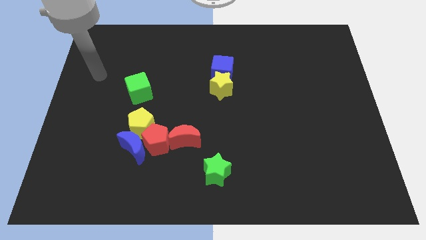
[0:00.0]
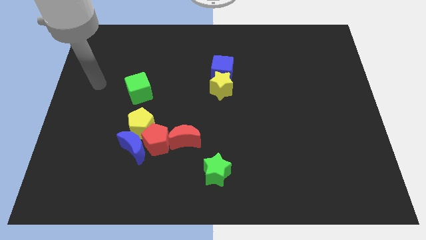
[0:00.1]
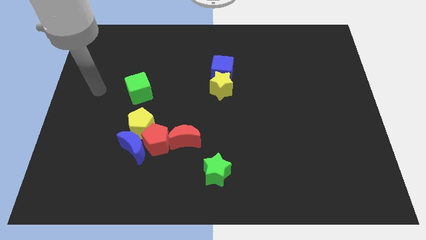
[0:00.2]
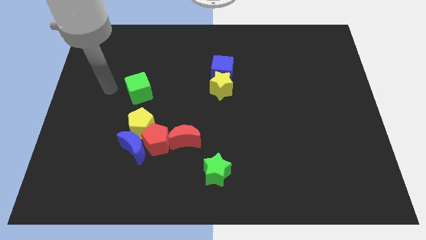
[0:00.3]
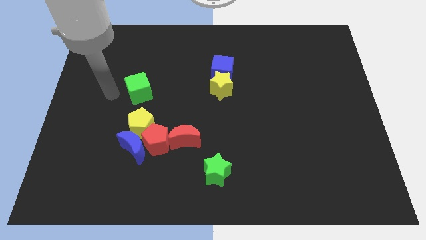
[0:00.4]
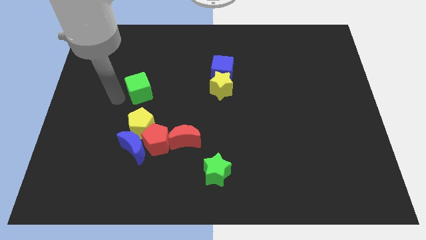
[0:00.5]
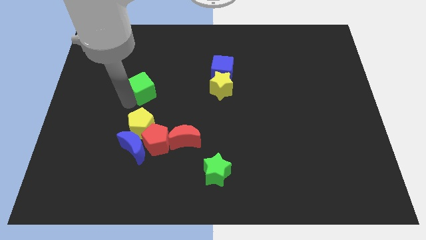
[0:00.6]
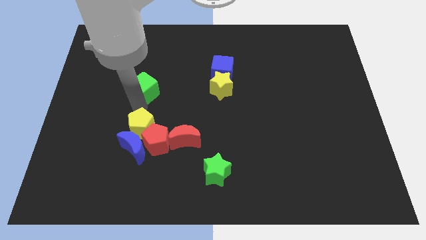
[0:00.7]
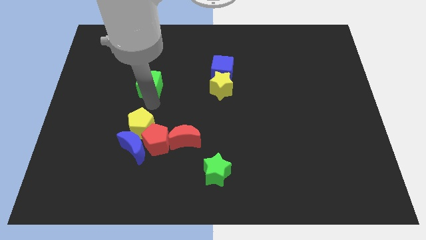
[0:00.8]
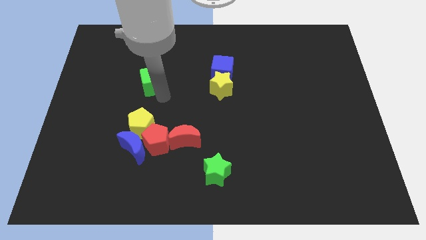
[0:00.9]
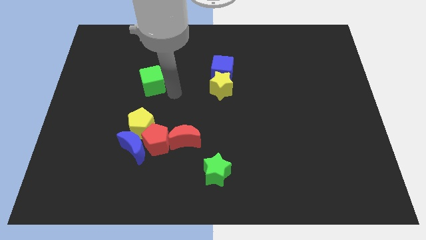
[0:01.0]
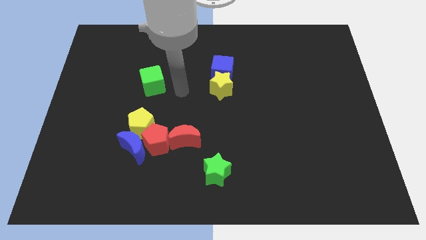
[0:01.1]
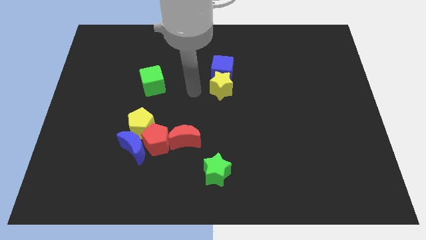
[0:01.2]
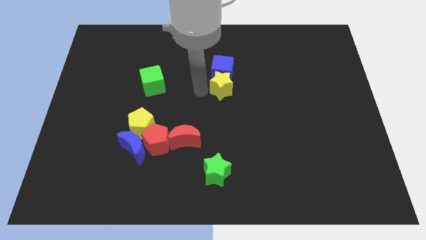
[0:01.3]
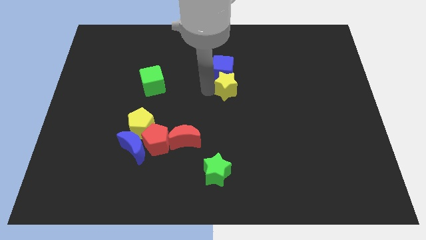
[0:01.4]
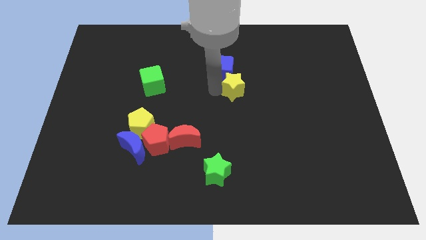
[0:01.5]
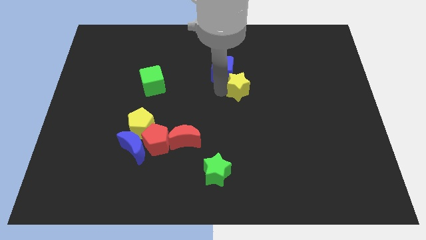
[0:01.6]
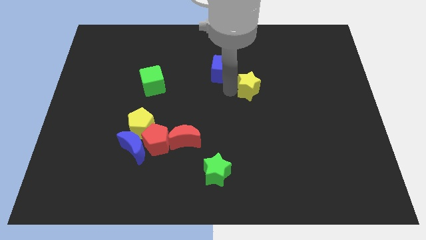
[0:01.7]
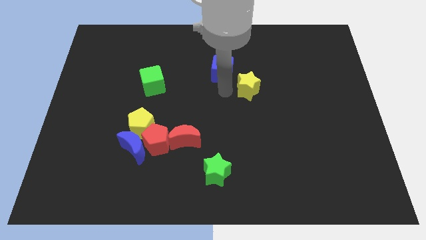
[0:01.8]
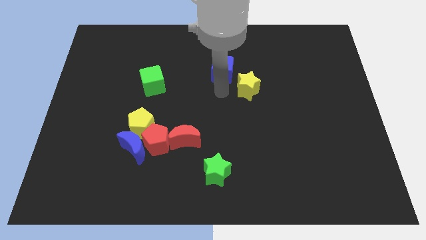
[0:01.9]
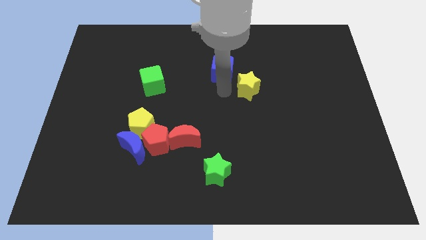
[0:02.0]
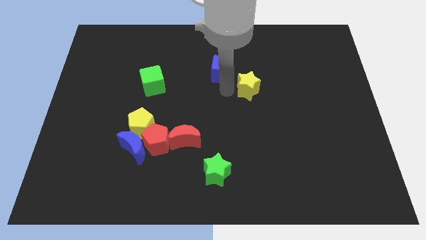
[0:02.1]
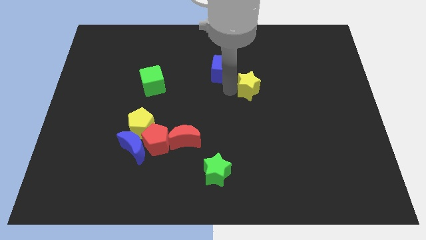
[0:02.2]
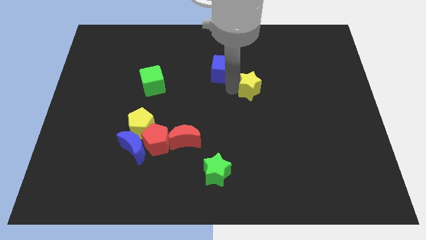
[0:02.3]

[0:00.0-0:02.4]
push the yellow star right somewhat

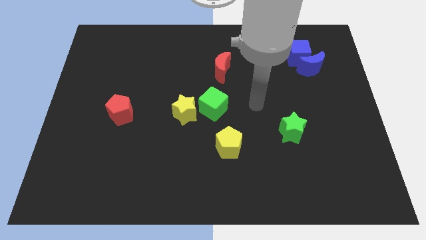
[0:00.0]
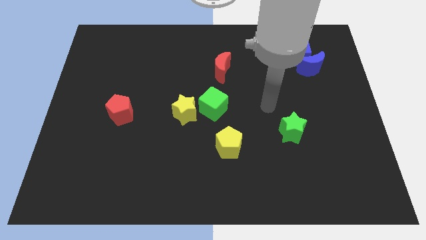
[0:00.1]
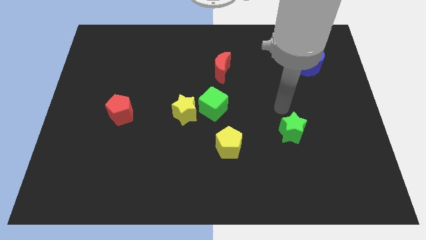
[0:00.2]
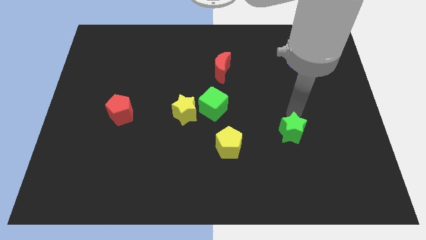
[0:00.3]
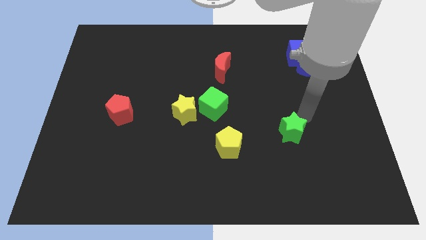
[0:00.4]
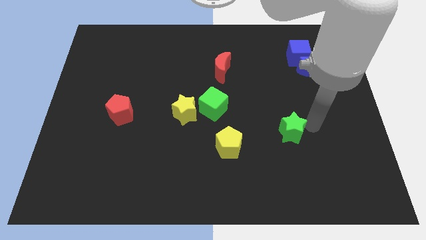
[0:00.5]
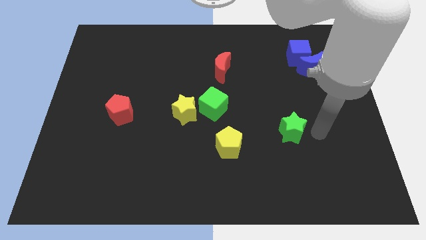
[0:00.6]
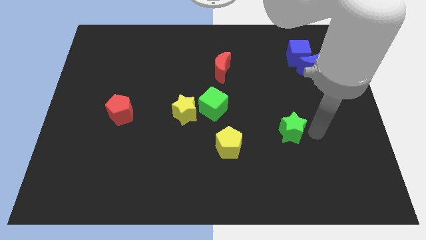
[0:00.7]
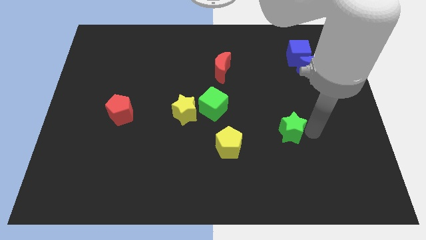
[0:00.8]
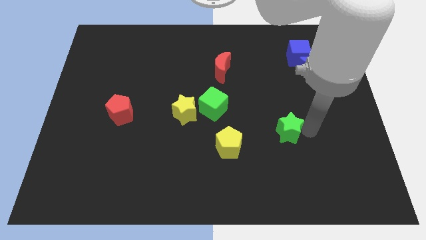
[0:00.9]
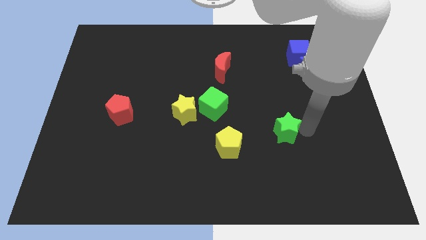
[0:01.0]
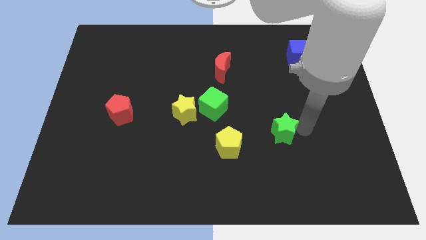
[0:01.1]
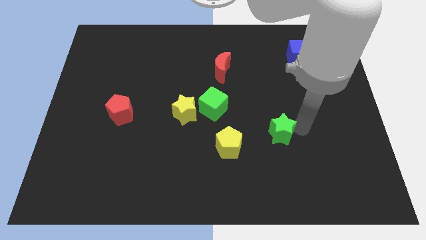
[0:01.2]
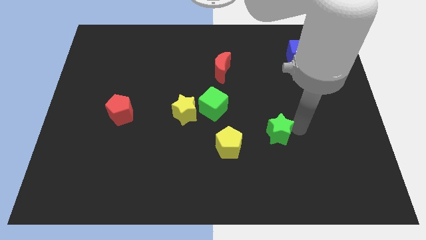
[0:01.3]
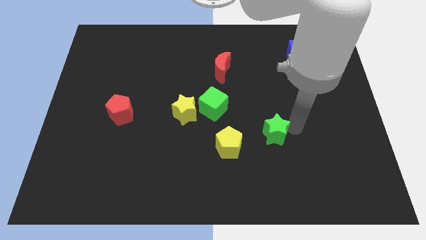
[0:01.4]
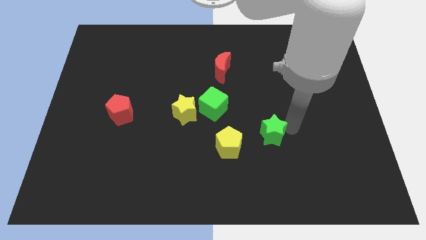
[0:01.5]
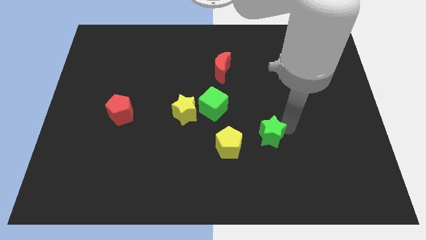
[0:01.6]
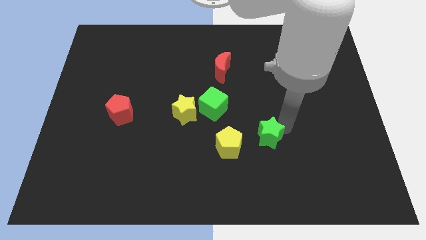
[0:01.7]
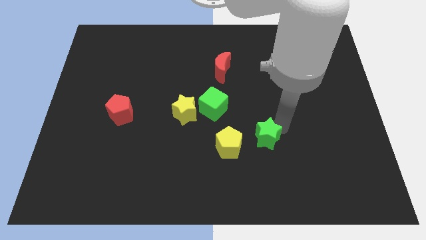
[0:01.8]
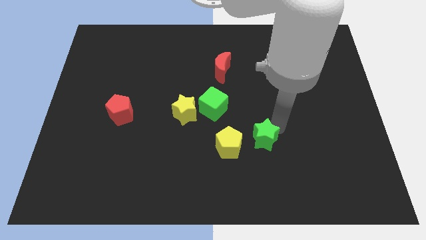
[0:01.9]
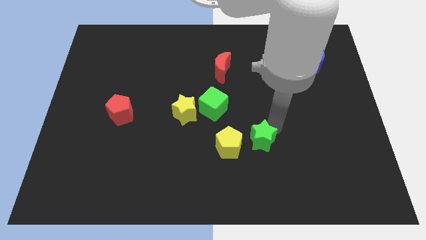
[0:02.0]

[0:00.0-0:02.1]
slightly push the green star left

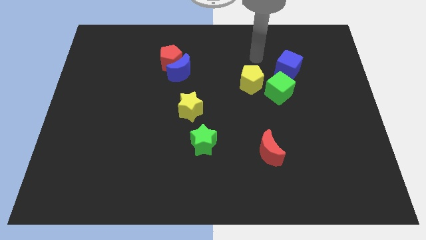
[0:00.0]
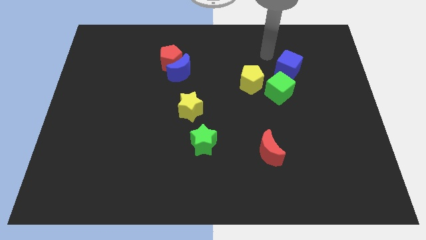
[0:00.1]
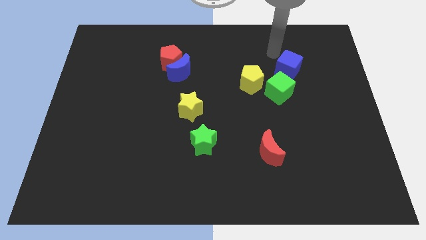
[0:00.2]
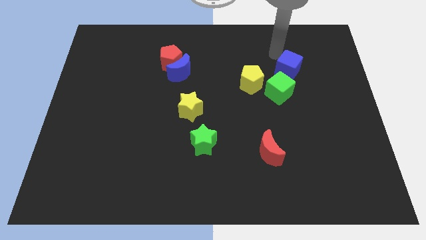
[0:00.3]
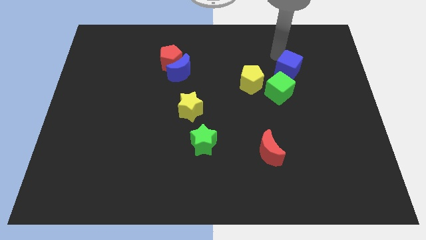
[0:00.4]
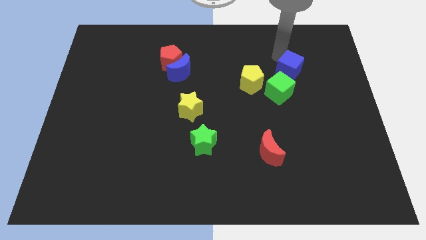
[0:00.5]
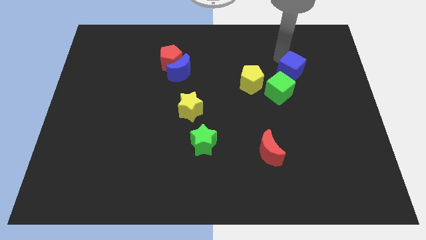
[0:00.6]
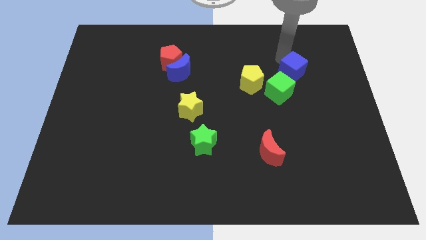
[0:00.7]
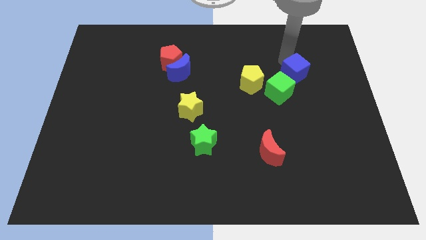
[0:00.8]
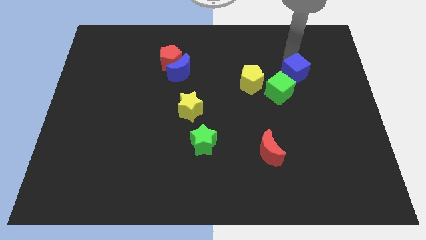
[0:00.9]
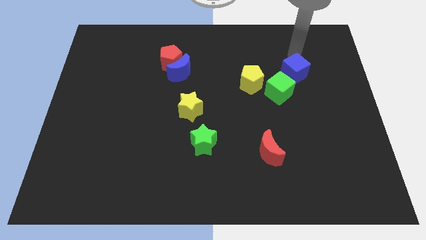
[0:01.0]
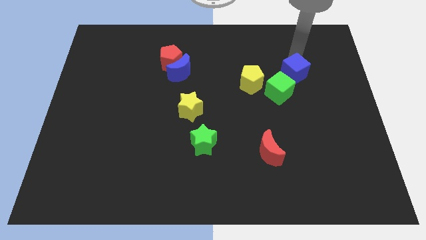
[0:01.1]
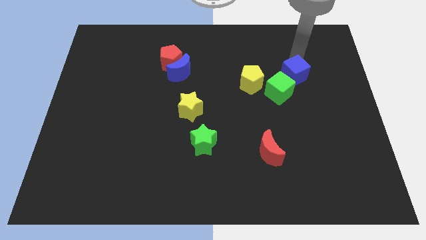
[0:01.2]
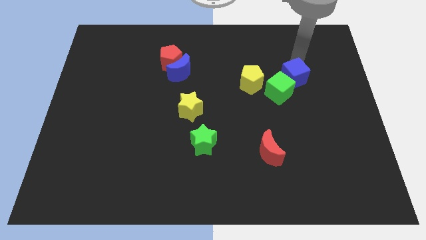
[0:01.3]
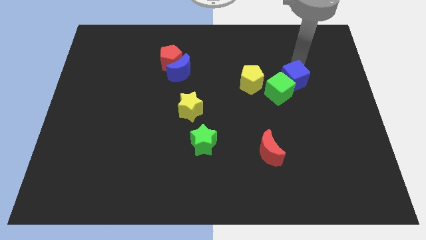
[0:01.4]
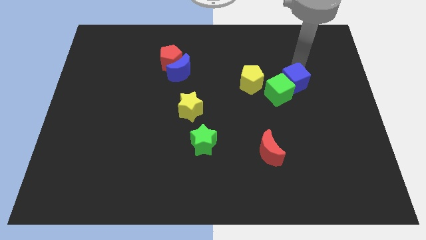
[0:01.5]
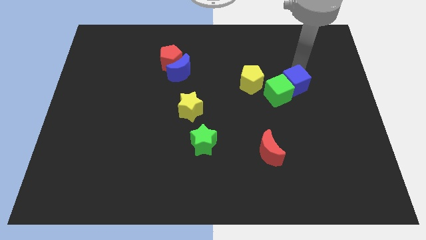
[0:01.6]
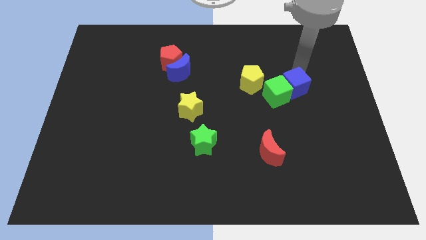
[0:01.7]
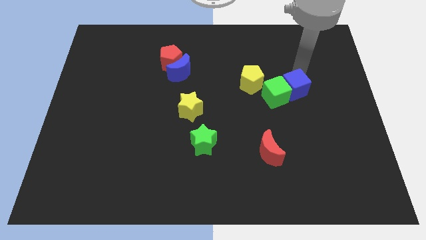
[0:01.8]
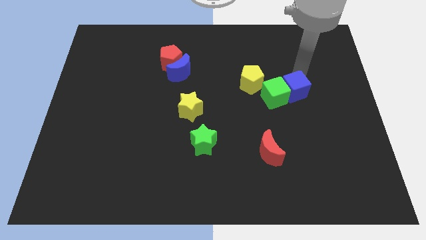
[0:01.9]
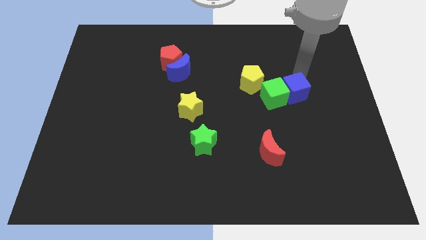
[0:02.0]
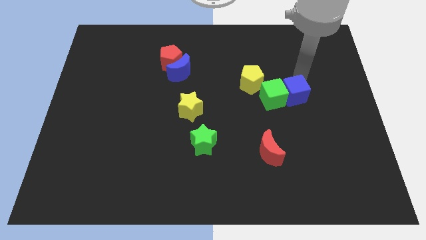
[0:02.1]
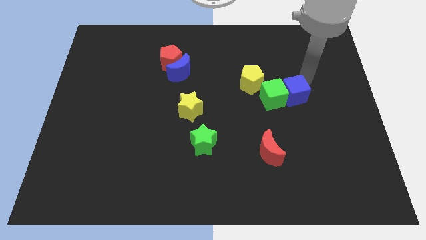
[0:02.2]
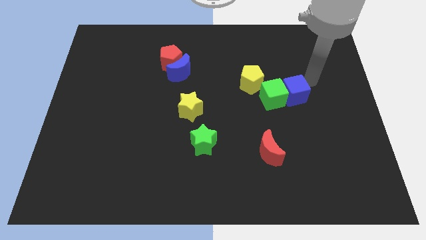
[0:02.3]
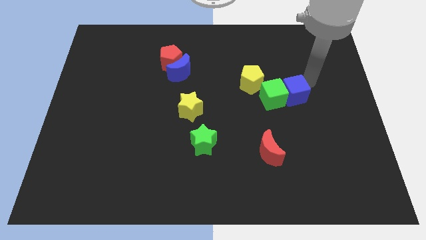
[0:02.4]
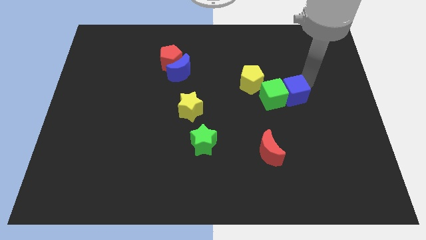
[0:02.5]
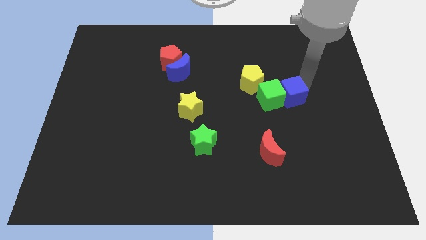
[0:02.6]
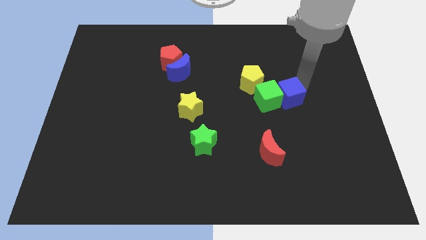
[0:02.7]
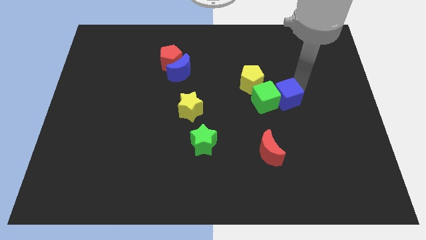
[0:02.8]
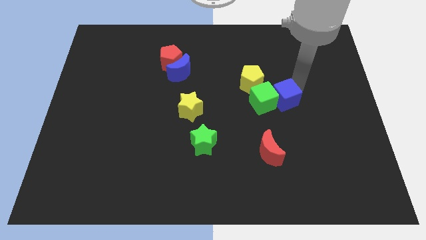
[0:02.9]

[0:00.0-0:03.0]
slightly move the blue cube downwards and to the left diagonally

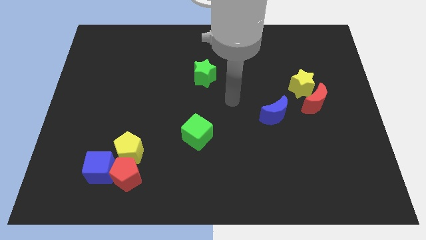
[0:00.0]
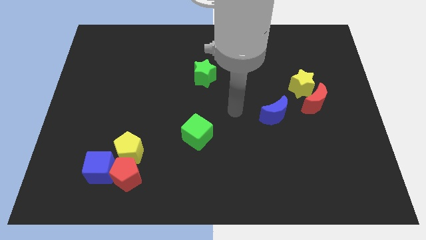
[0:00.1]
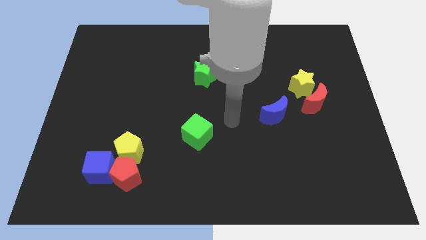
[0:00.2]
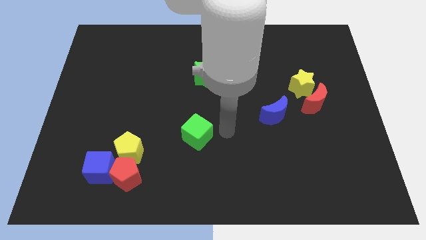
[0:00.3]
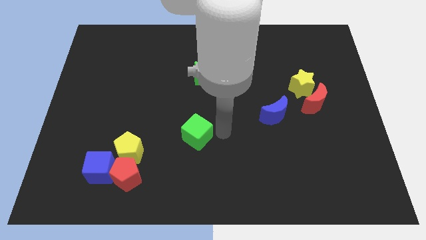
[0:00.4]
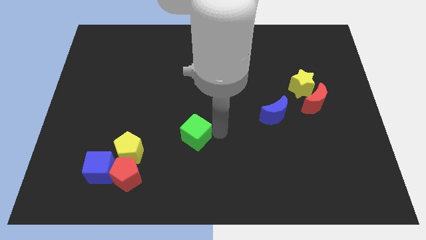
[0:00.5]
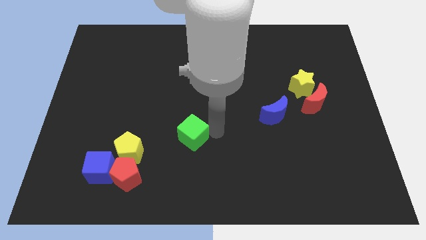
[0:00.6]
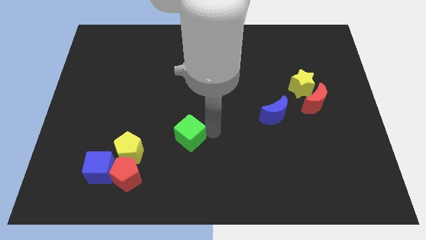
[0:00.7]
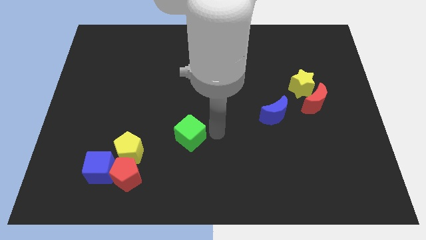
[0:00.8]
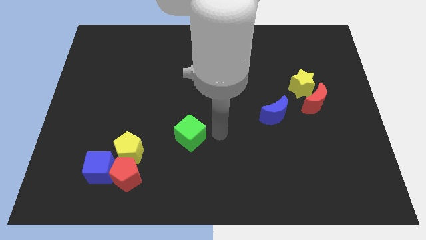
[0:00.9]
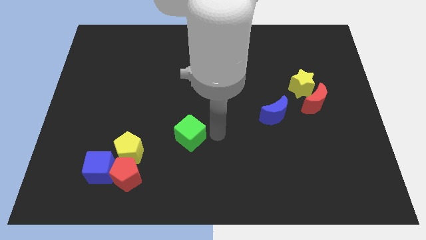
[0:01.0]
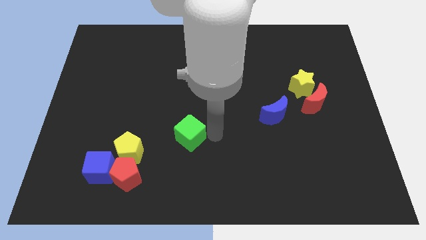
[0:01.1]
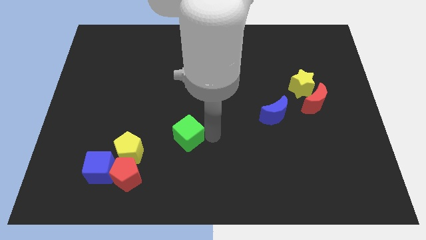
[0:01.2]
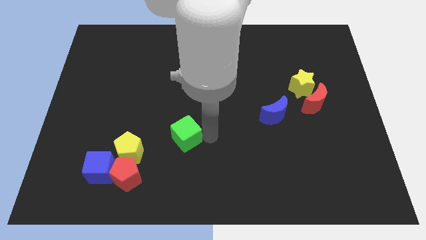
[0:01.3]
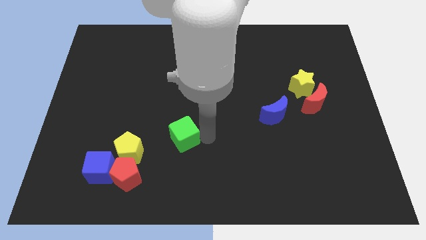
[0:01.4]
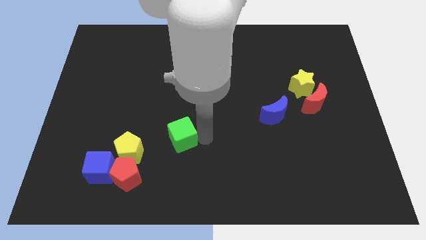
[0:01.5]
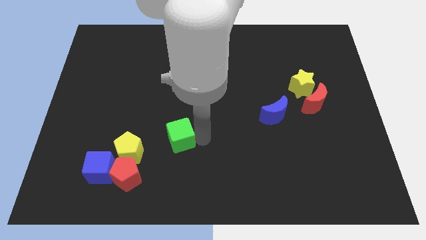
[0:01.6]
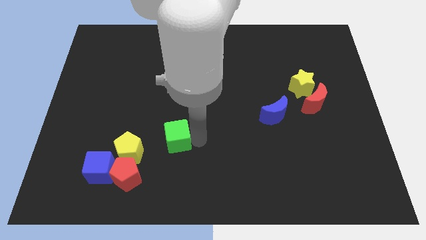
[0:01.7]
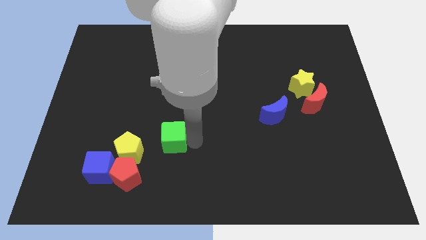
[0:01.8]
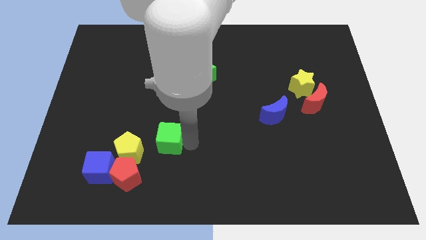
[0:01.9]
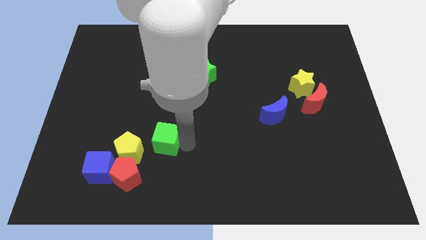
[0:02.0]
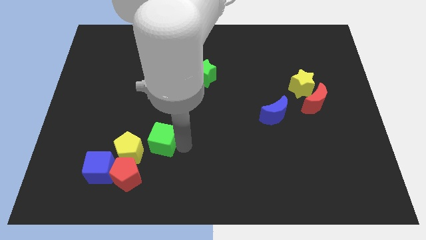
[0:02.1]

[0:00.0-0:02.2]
slightly push the green cube left
